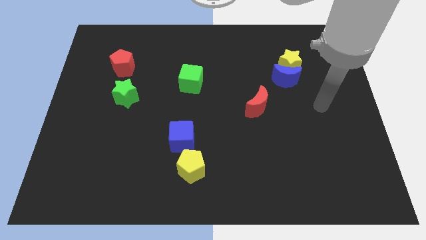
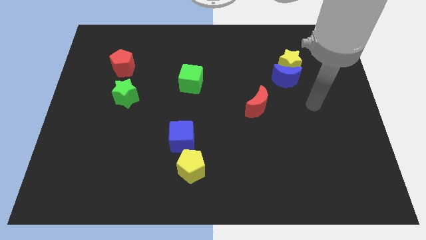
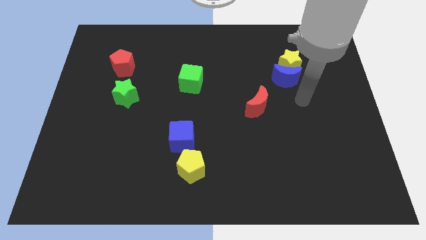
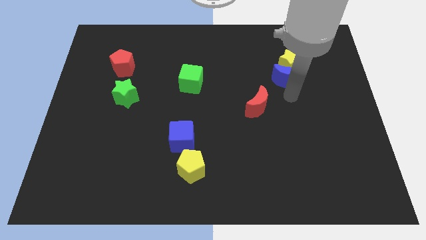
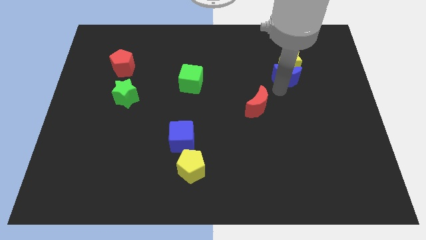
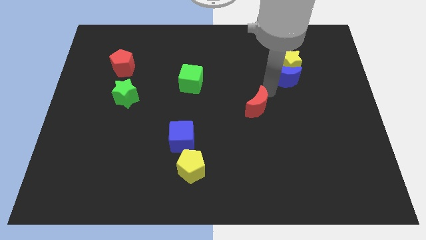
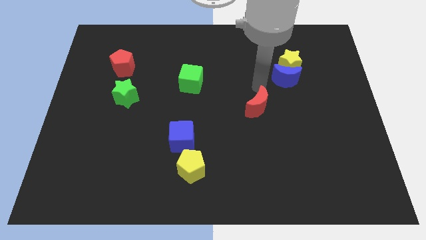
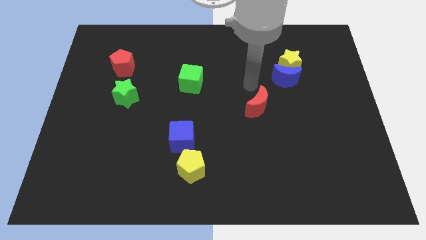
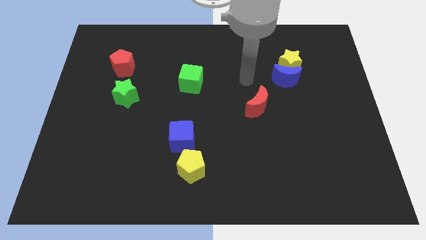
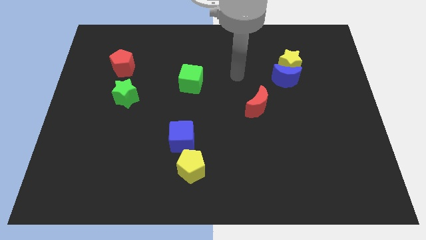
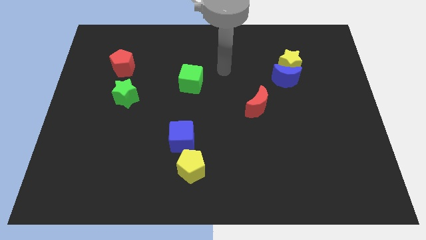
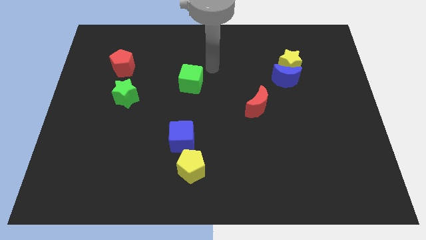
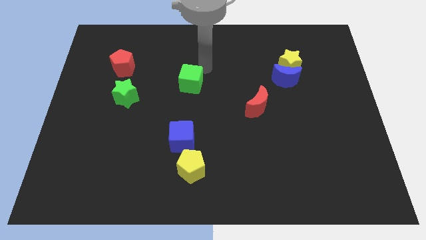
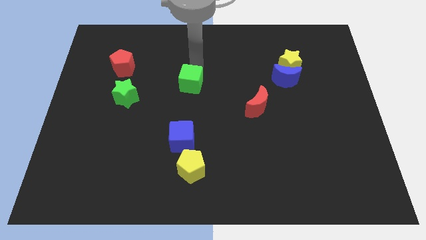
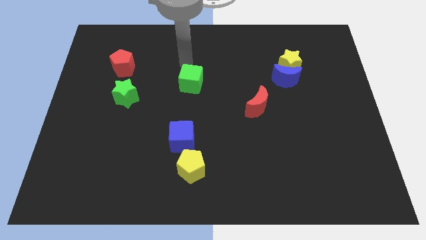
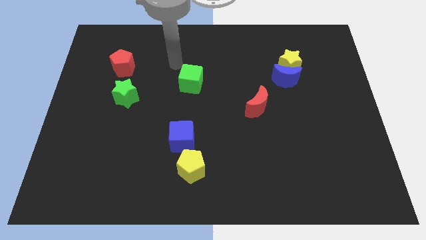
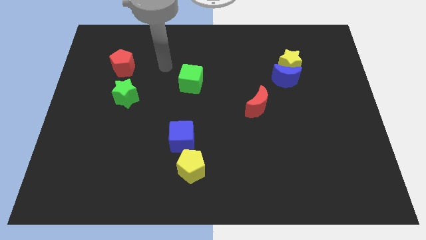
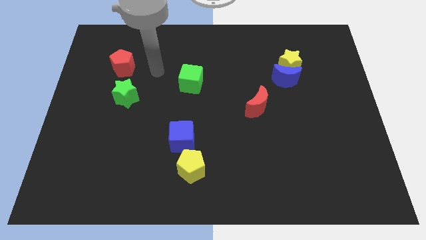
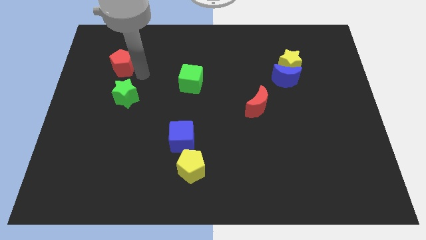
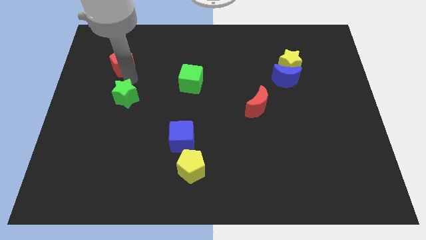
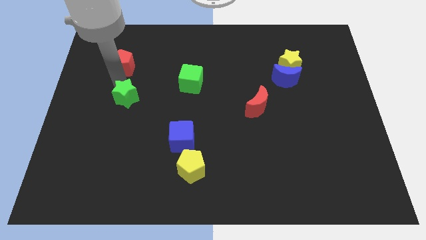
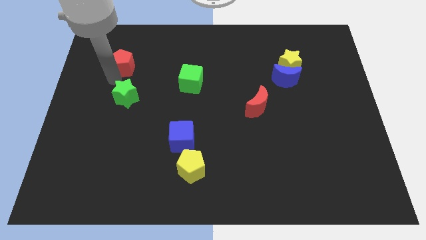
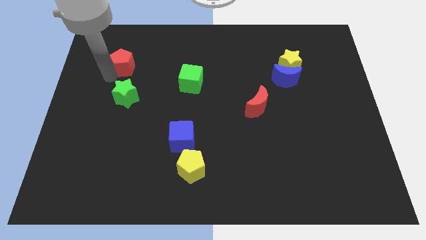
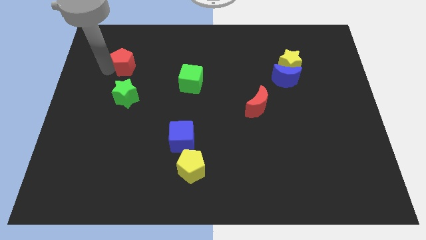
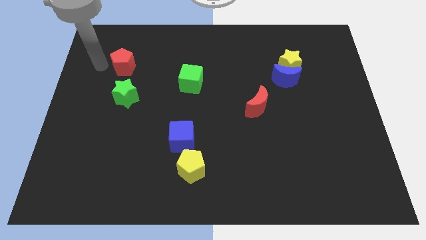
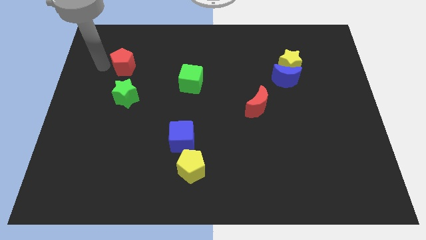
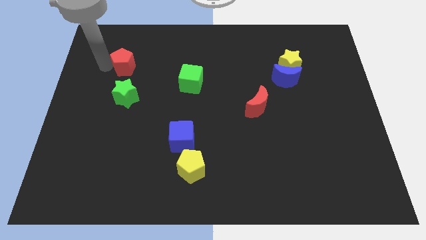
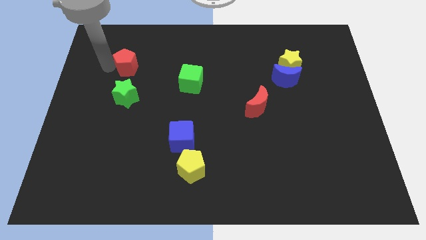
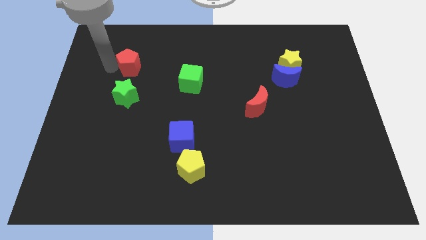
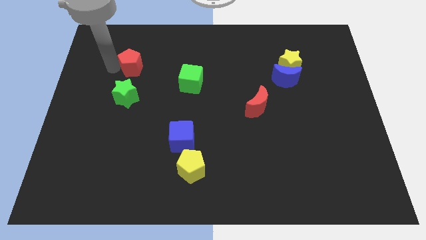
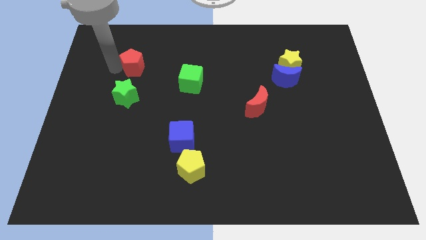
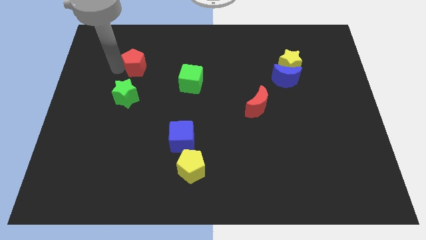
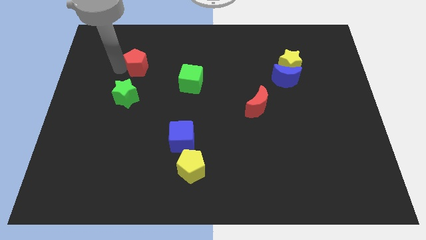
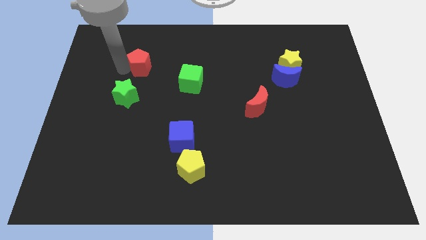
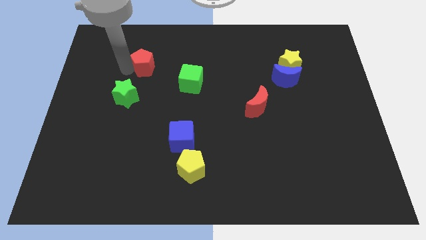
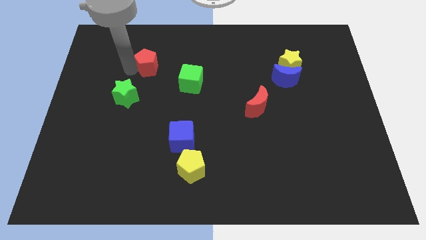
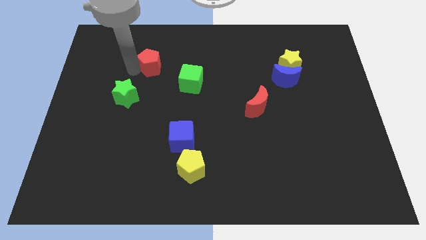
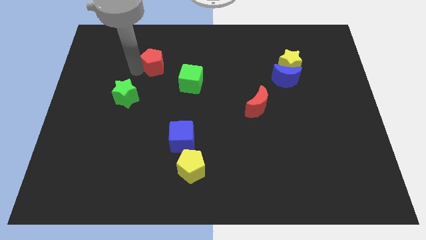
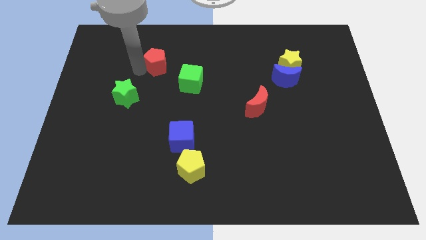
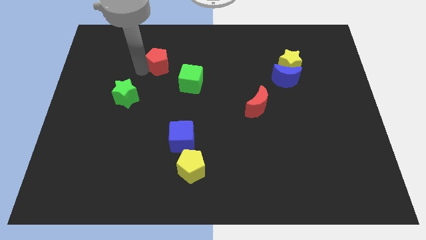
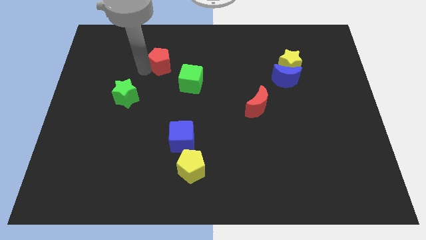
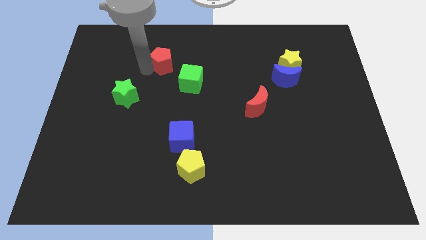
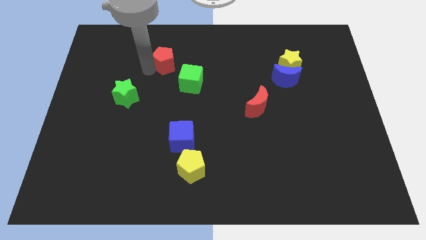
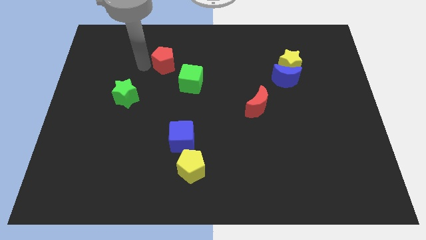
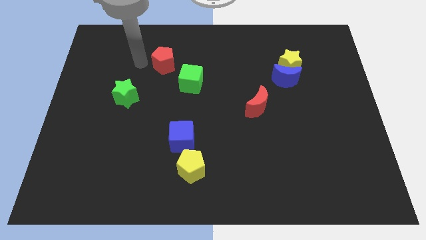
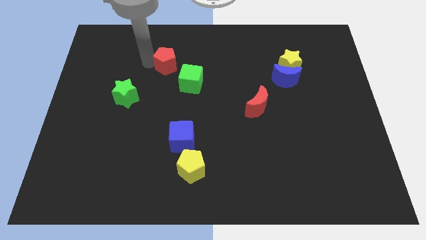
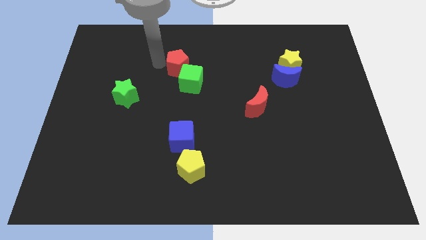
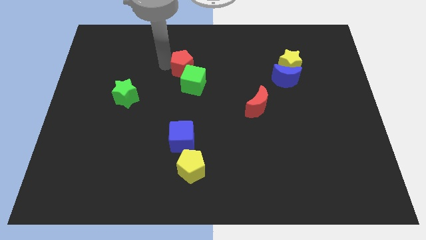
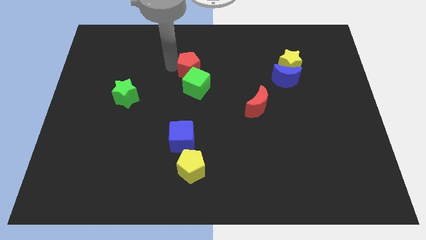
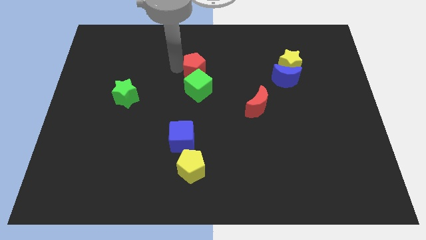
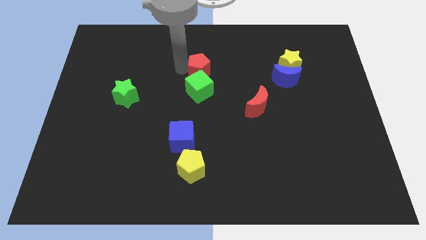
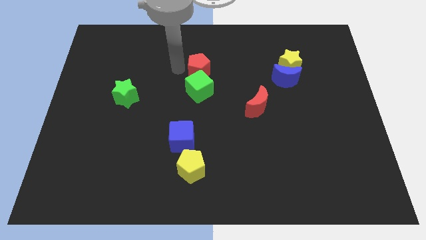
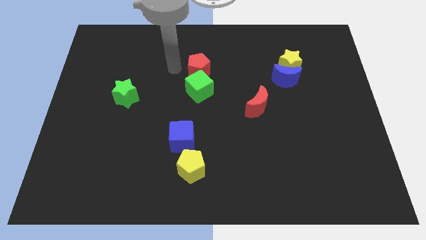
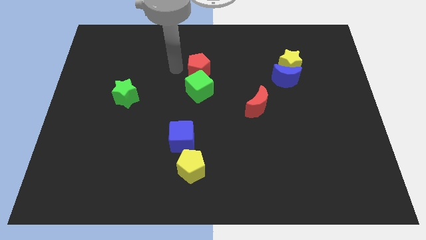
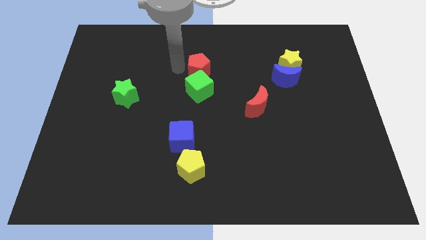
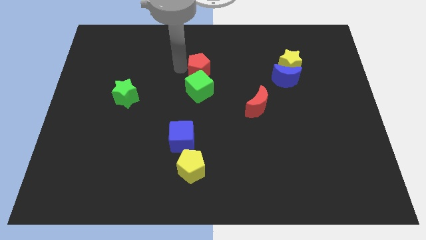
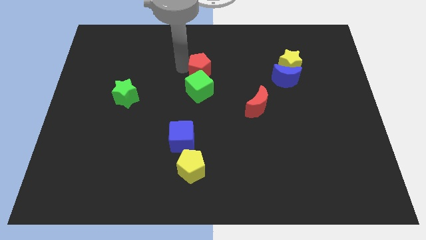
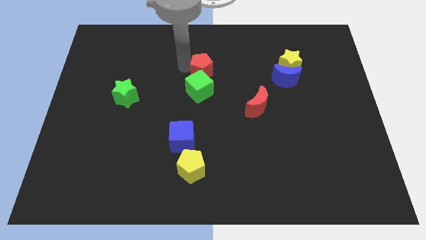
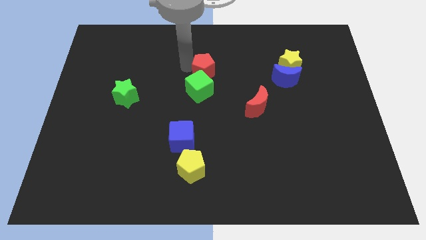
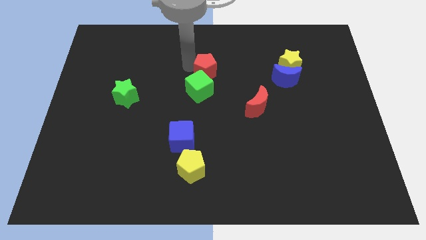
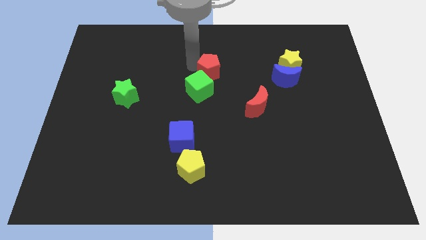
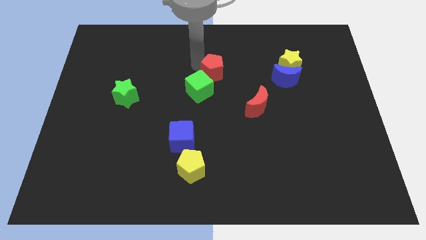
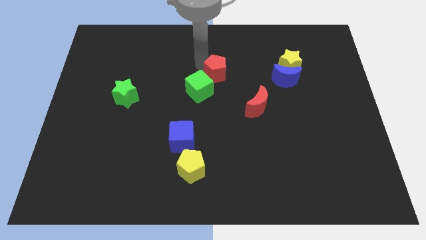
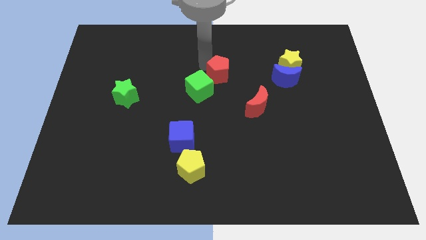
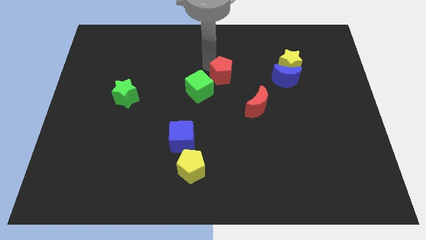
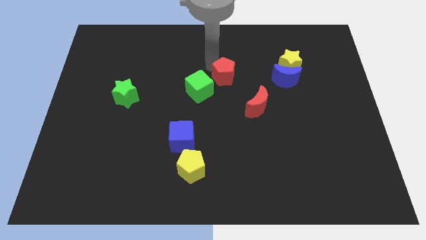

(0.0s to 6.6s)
push the red pentagon just right of the green cube
